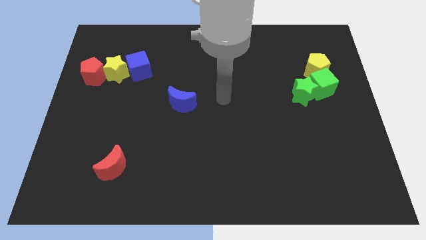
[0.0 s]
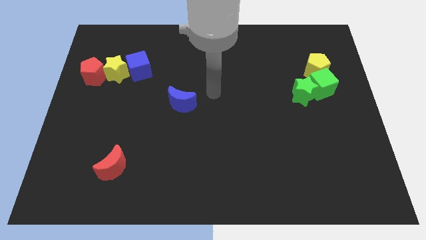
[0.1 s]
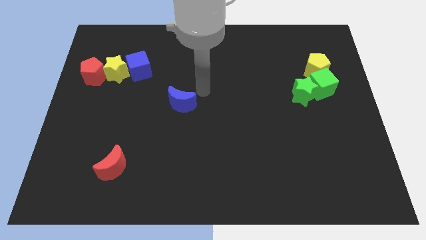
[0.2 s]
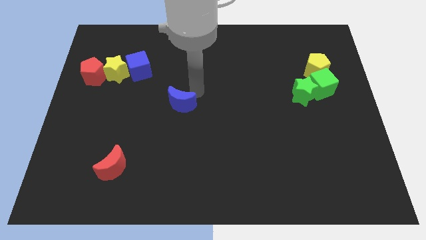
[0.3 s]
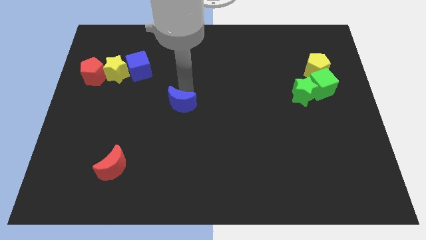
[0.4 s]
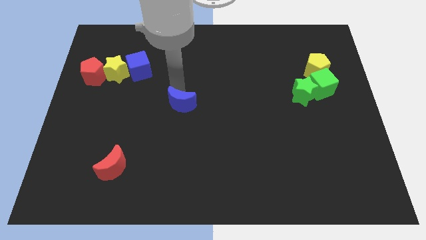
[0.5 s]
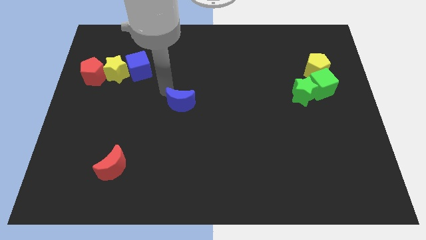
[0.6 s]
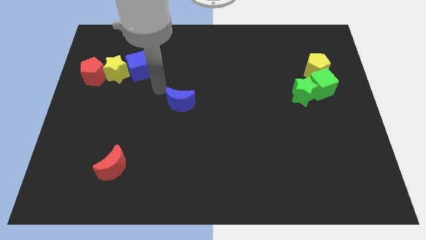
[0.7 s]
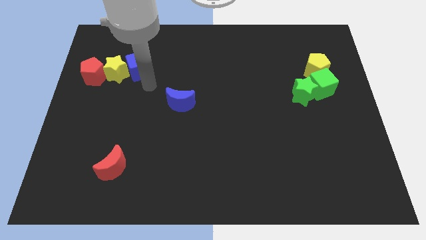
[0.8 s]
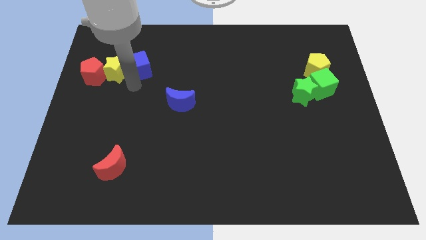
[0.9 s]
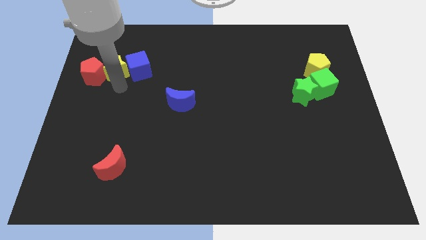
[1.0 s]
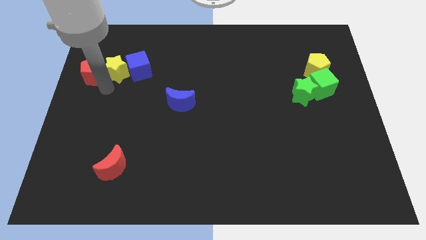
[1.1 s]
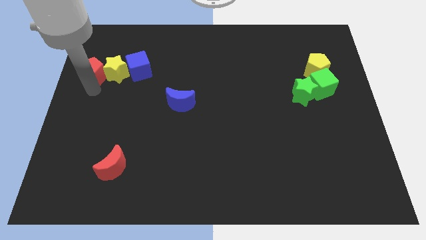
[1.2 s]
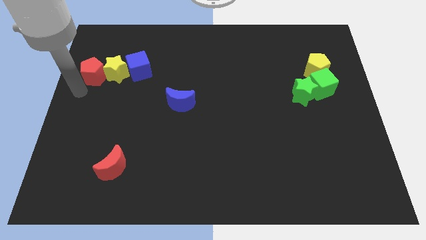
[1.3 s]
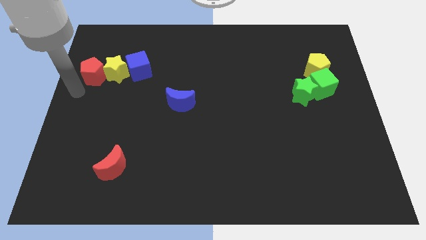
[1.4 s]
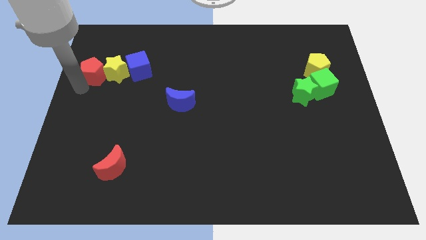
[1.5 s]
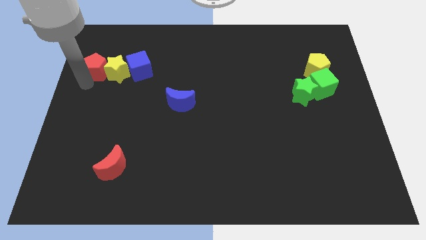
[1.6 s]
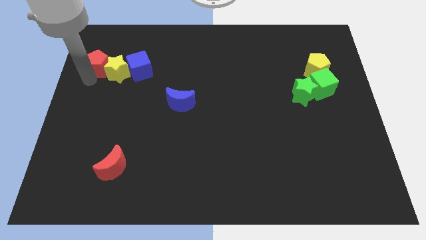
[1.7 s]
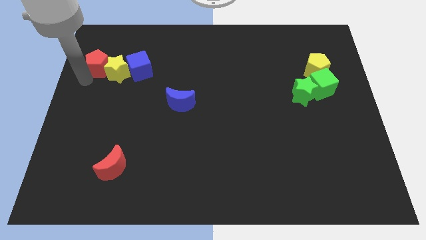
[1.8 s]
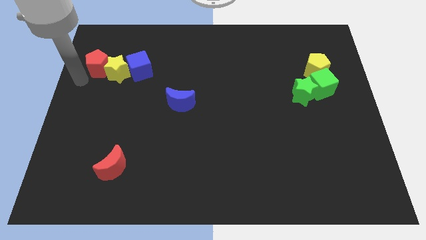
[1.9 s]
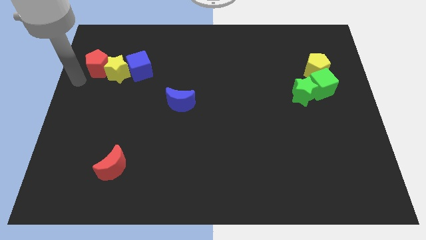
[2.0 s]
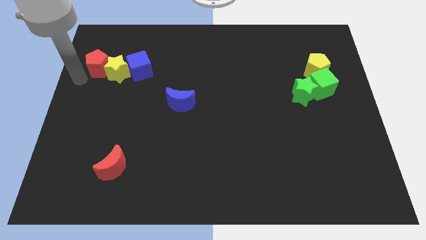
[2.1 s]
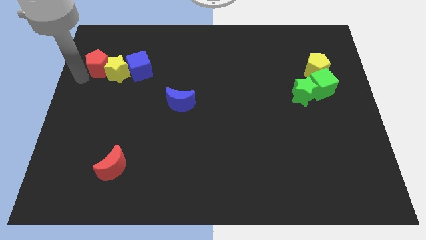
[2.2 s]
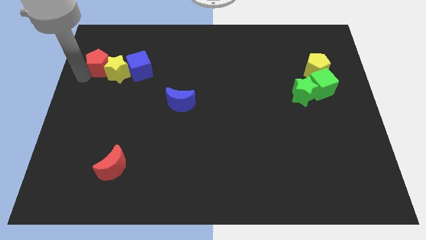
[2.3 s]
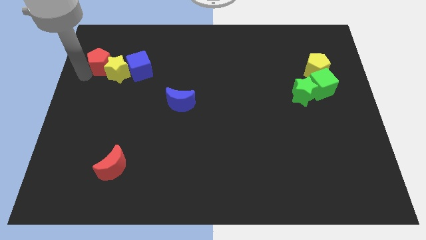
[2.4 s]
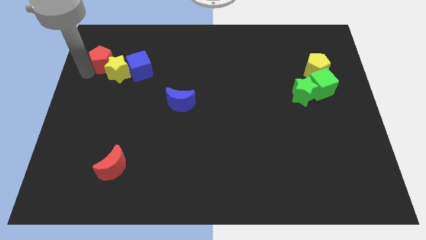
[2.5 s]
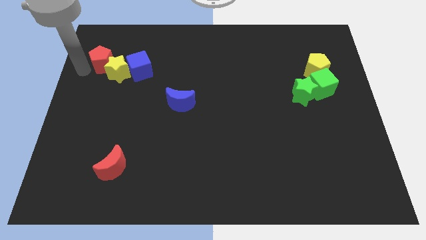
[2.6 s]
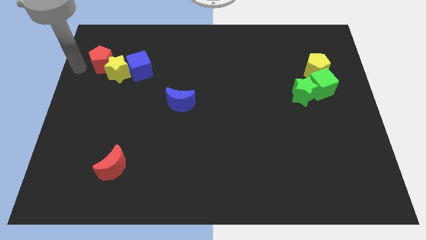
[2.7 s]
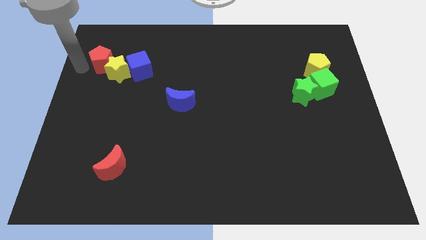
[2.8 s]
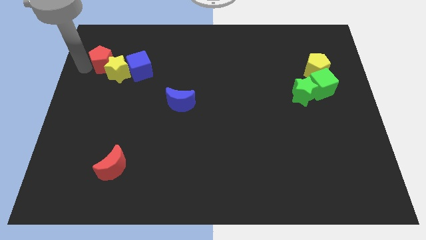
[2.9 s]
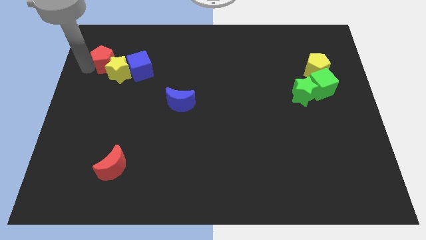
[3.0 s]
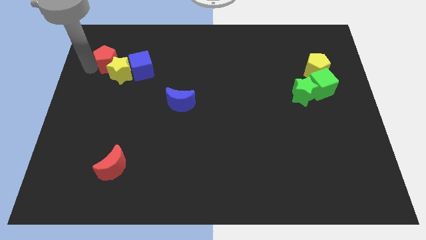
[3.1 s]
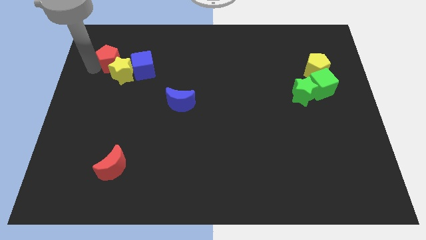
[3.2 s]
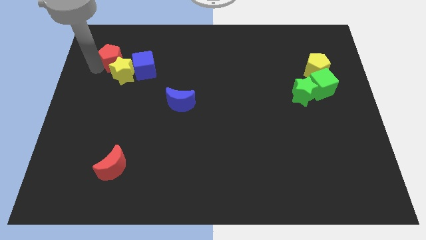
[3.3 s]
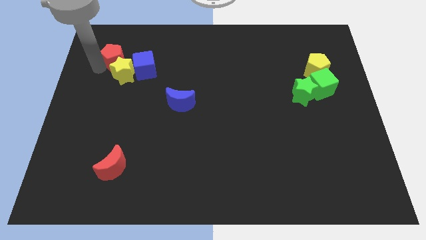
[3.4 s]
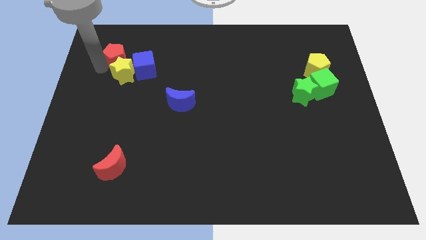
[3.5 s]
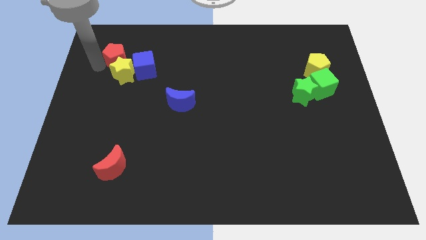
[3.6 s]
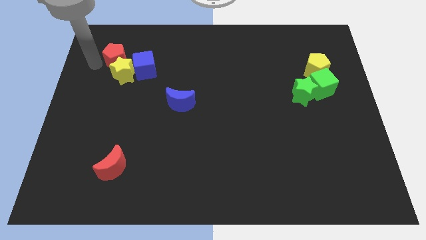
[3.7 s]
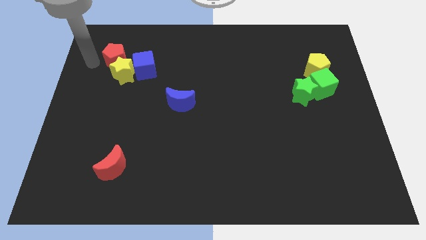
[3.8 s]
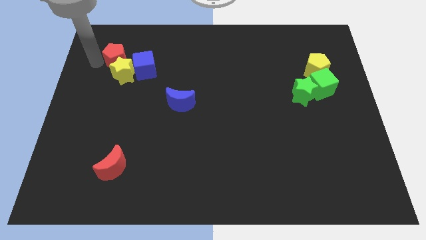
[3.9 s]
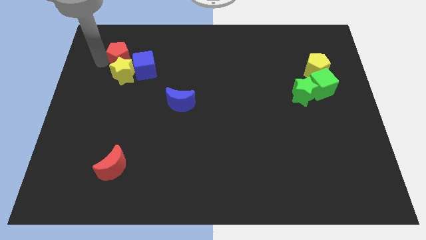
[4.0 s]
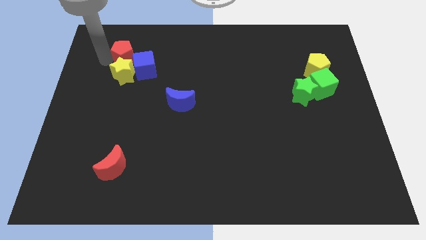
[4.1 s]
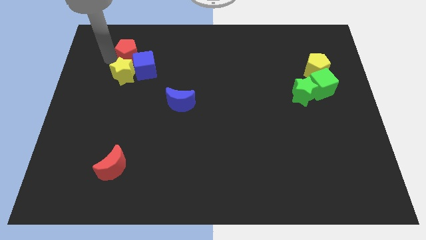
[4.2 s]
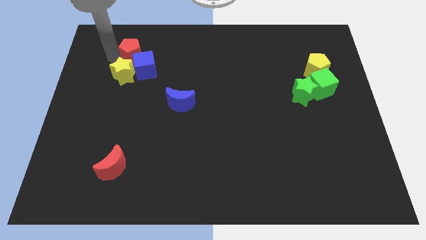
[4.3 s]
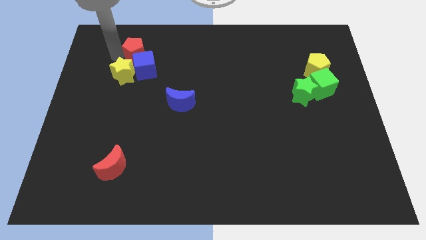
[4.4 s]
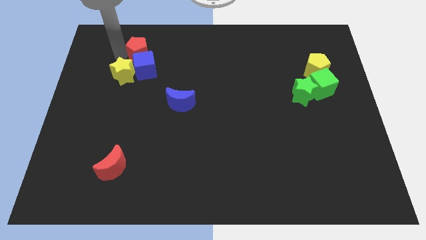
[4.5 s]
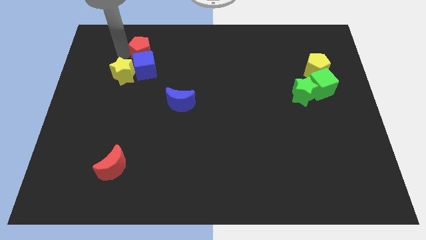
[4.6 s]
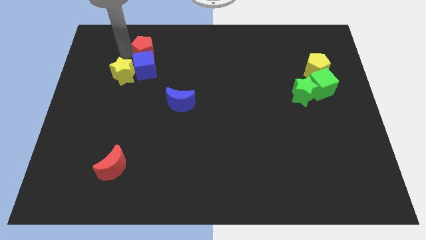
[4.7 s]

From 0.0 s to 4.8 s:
slide the red pentagon diagonally up and to the right of the blue cube

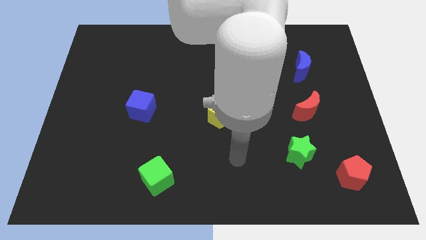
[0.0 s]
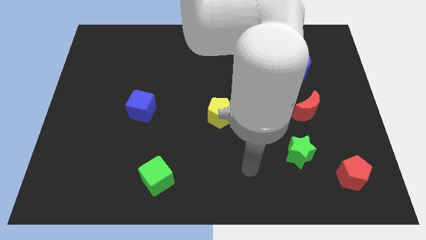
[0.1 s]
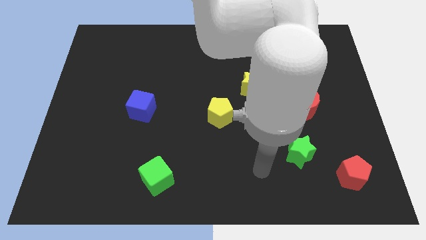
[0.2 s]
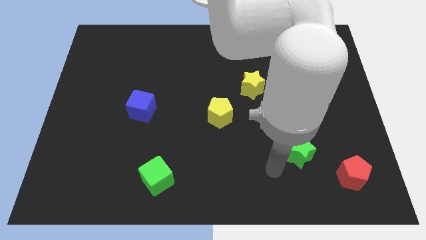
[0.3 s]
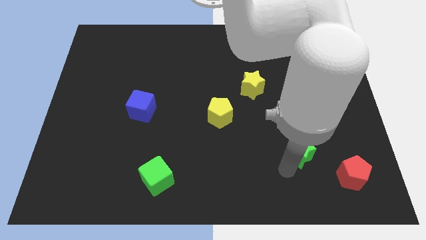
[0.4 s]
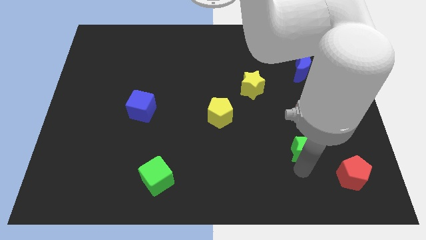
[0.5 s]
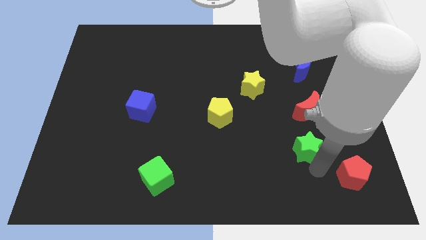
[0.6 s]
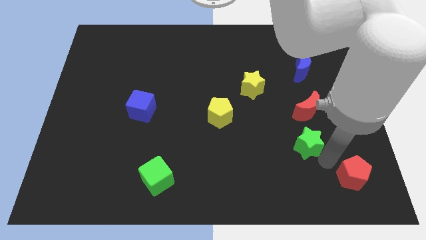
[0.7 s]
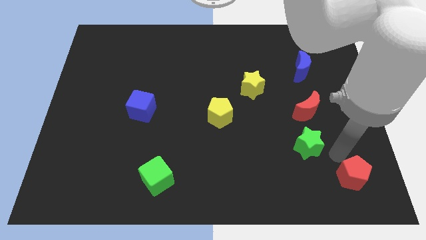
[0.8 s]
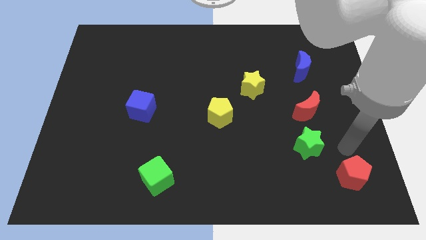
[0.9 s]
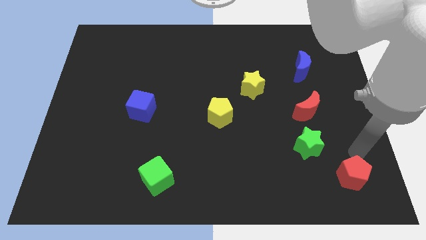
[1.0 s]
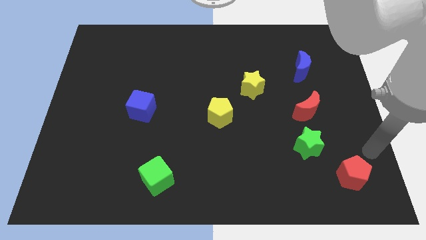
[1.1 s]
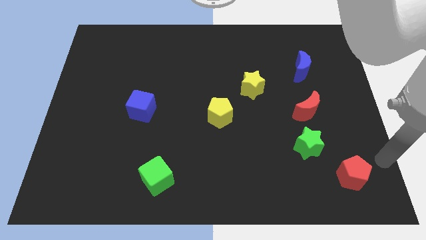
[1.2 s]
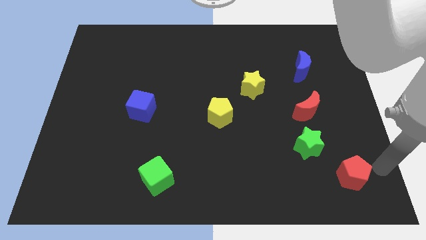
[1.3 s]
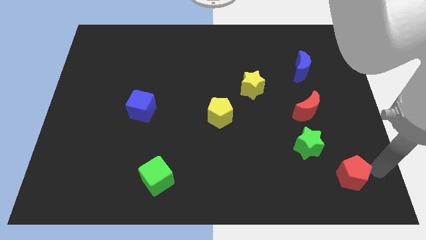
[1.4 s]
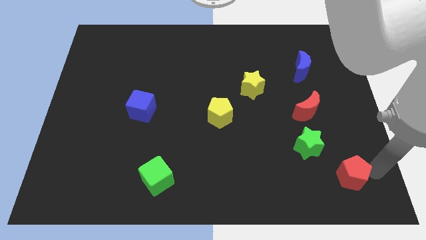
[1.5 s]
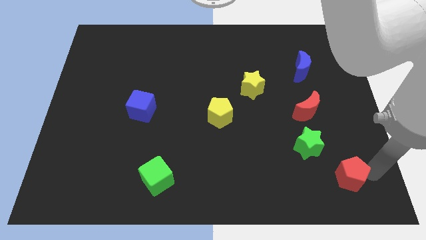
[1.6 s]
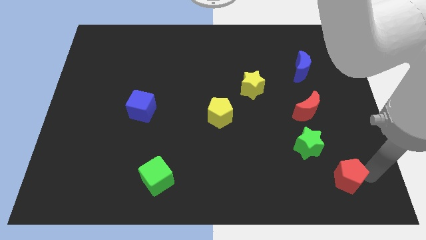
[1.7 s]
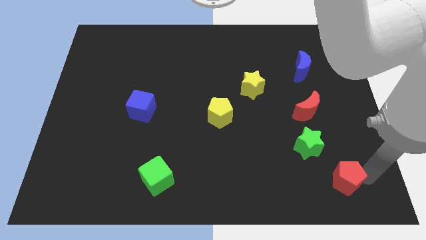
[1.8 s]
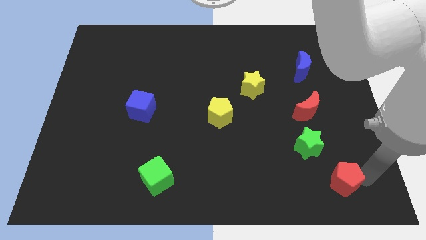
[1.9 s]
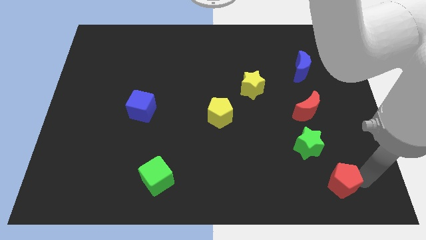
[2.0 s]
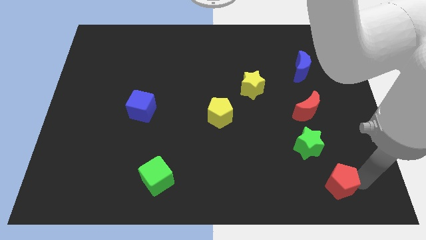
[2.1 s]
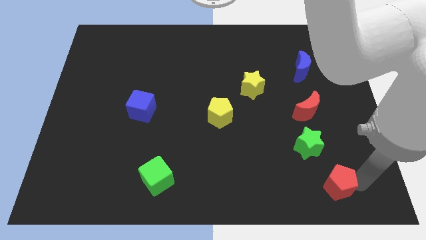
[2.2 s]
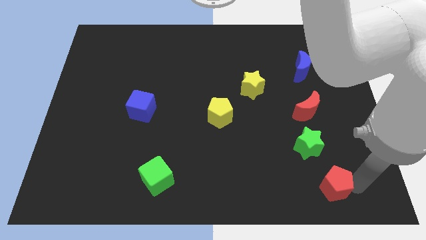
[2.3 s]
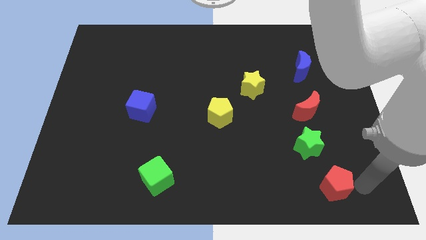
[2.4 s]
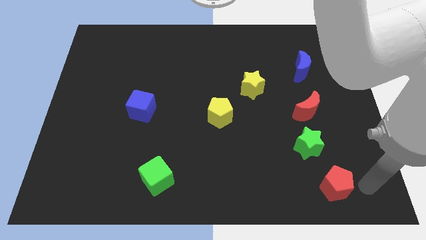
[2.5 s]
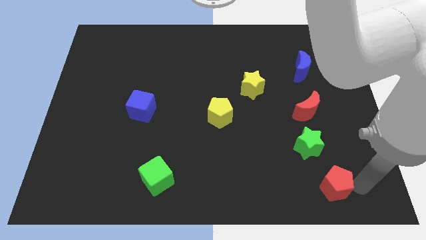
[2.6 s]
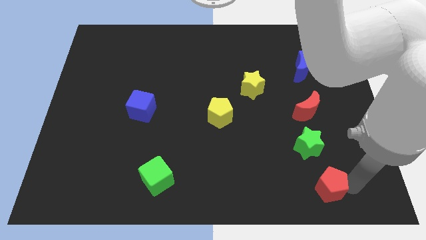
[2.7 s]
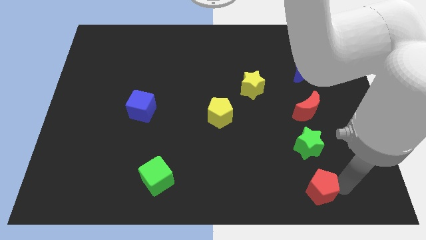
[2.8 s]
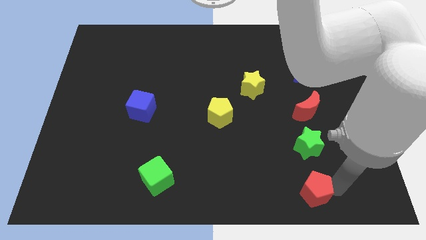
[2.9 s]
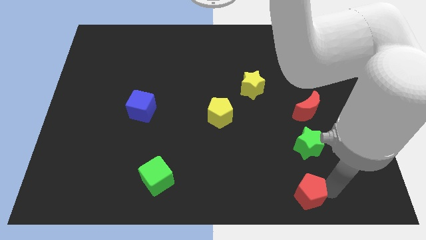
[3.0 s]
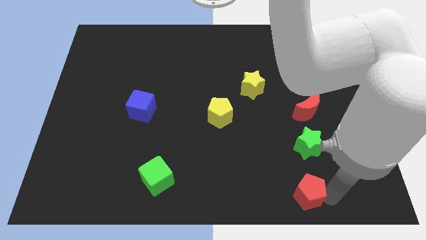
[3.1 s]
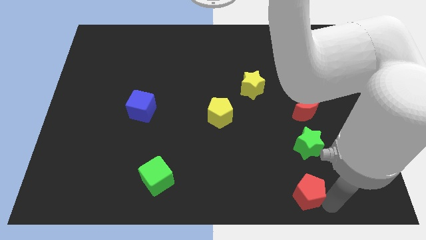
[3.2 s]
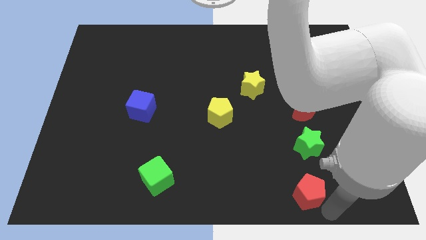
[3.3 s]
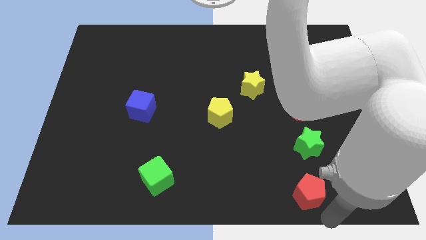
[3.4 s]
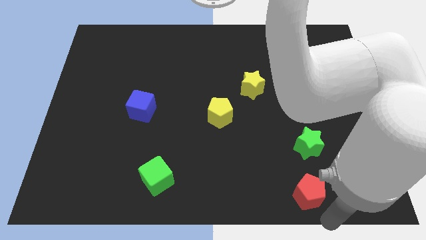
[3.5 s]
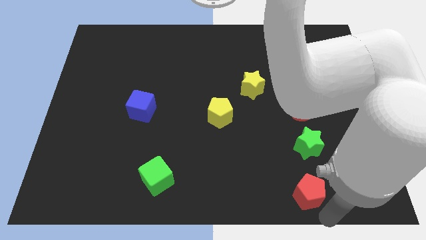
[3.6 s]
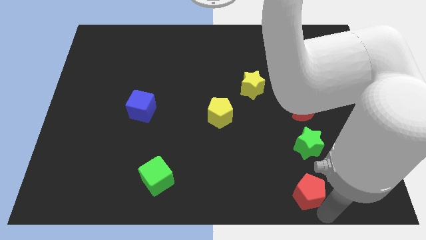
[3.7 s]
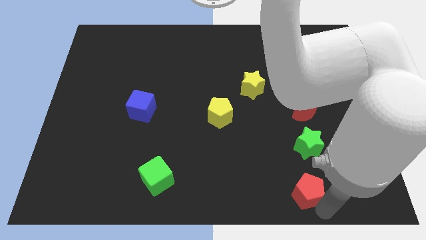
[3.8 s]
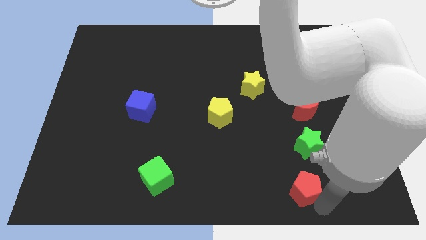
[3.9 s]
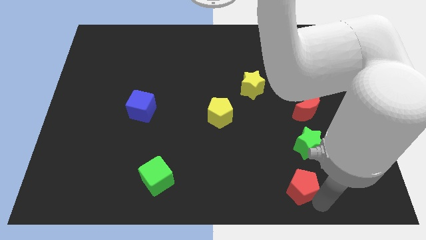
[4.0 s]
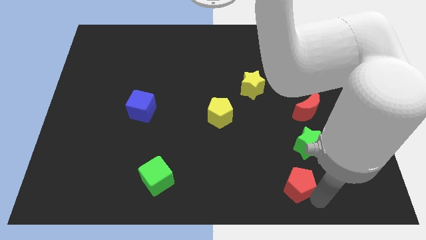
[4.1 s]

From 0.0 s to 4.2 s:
move the red pentagon to the bottom left side of the green star
